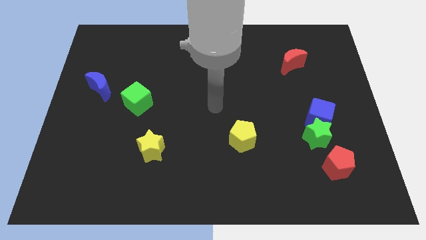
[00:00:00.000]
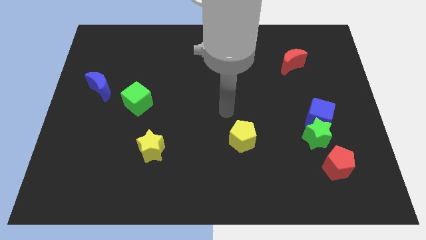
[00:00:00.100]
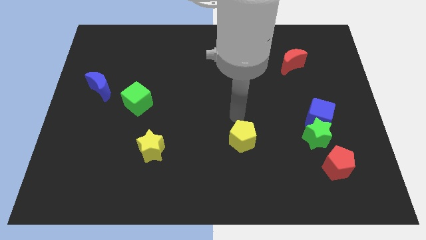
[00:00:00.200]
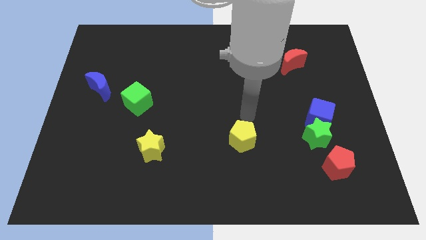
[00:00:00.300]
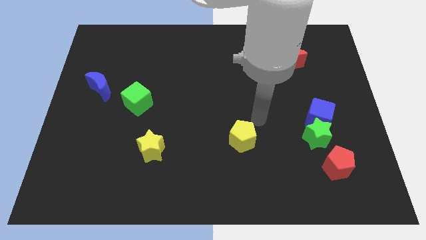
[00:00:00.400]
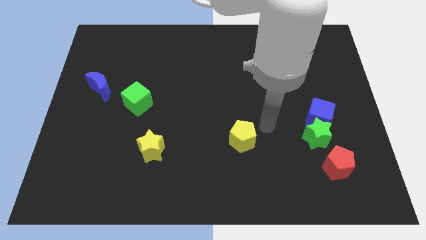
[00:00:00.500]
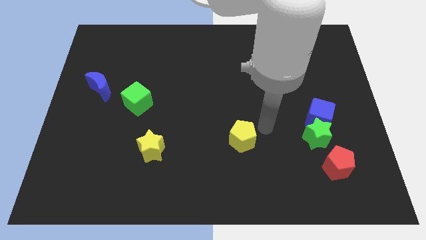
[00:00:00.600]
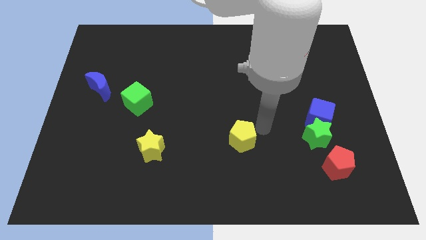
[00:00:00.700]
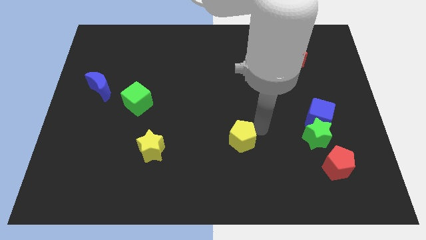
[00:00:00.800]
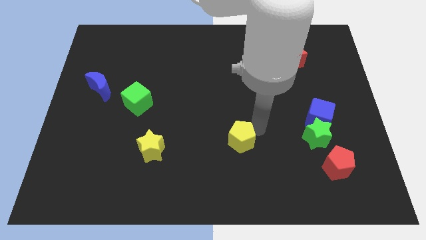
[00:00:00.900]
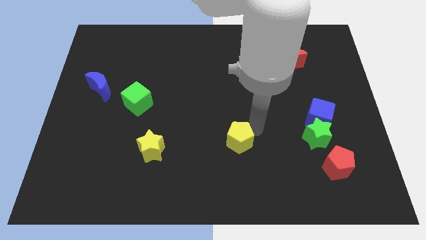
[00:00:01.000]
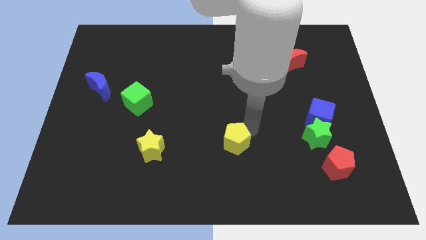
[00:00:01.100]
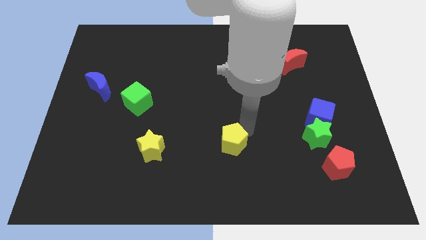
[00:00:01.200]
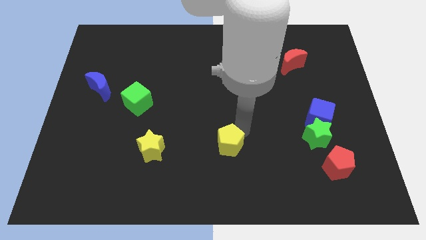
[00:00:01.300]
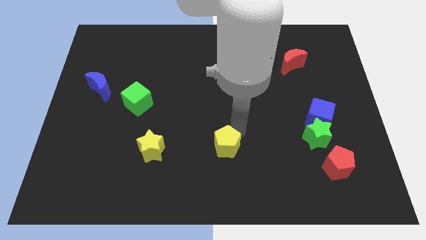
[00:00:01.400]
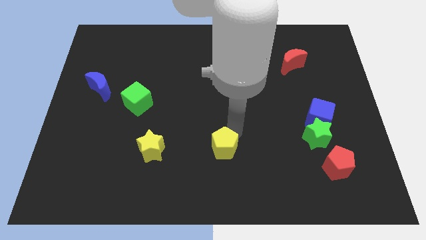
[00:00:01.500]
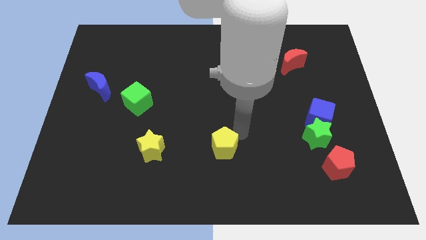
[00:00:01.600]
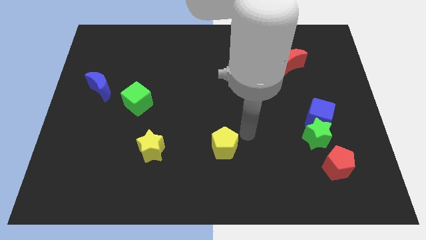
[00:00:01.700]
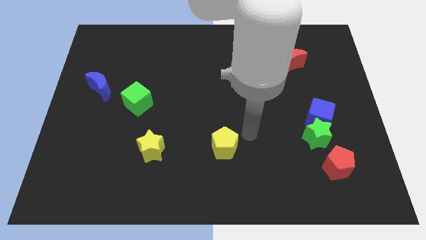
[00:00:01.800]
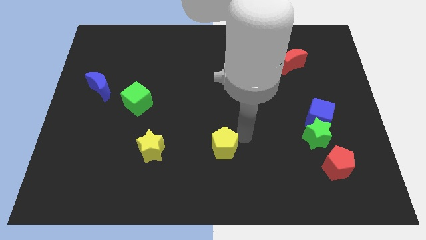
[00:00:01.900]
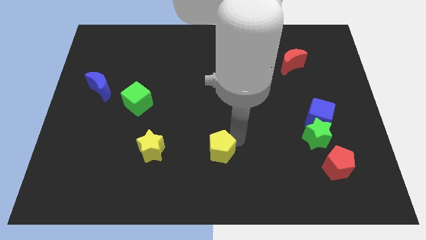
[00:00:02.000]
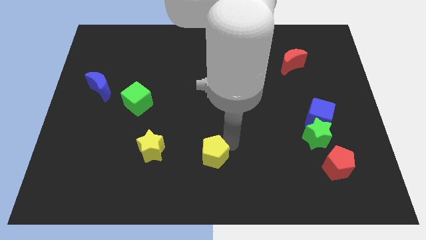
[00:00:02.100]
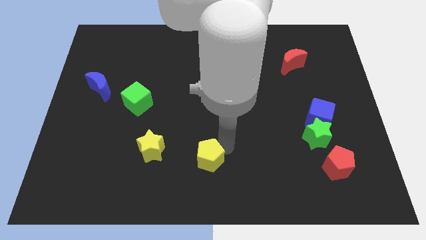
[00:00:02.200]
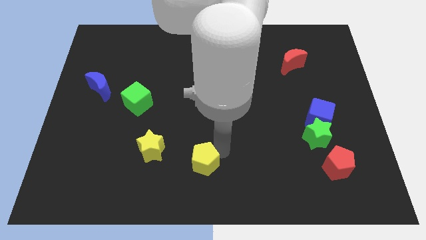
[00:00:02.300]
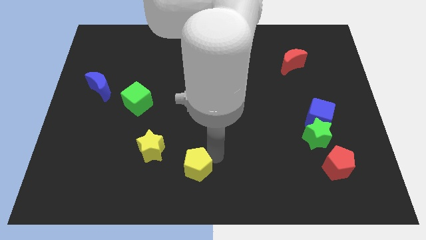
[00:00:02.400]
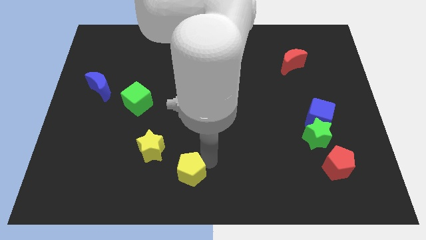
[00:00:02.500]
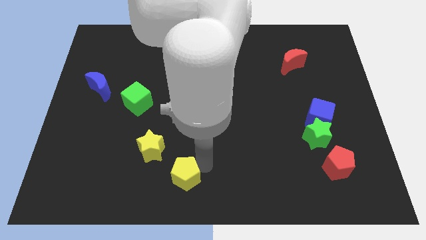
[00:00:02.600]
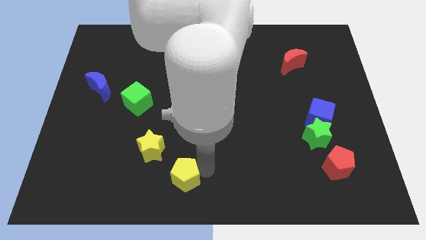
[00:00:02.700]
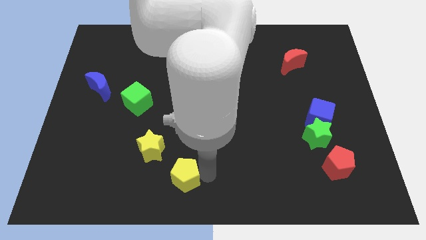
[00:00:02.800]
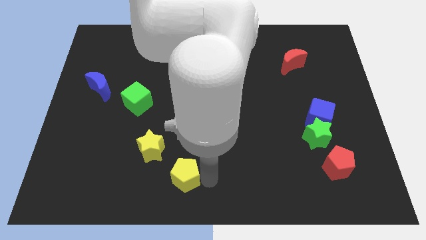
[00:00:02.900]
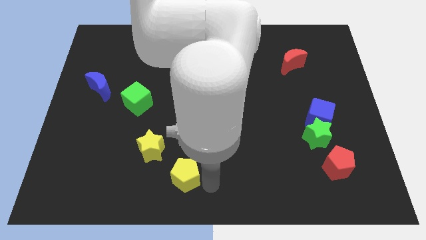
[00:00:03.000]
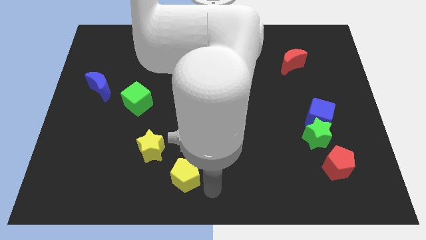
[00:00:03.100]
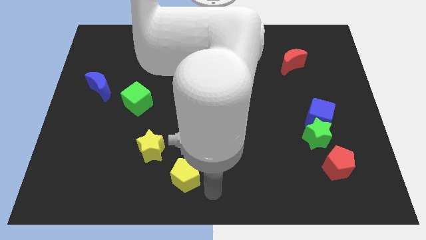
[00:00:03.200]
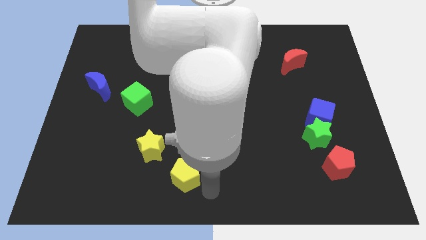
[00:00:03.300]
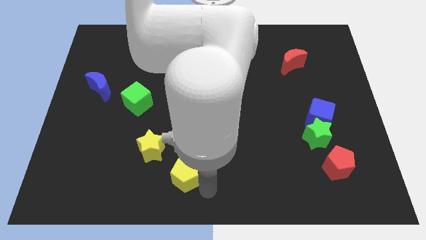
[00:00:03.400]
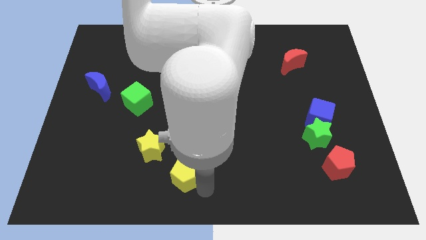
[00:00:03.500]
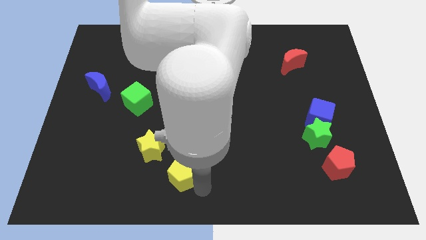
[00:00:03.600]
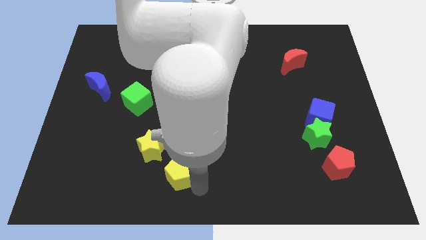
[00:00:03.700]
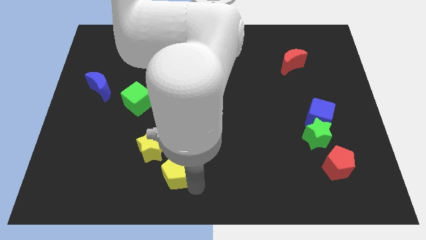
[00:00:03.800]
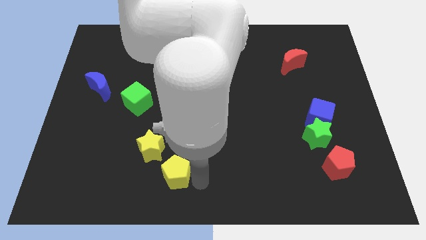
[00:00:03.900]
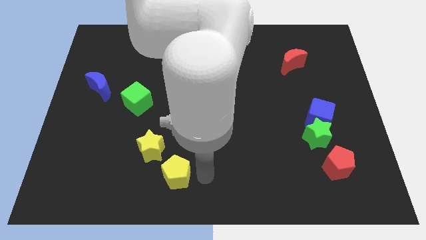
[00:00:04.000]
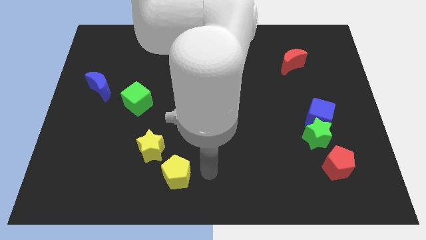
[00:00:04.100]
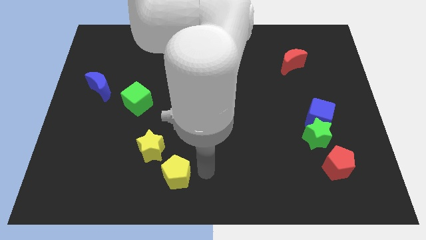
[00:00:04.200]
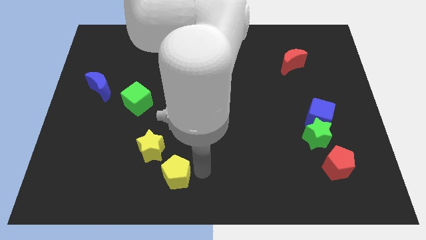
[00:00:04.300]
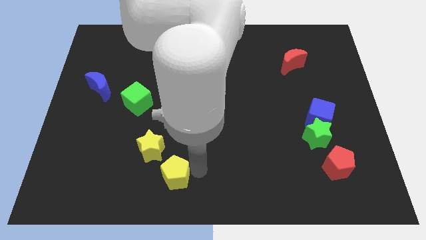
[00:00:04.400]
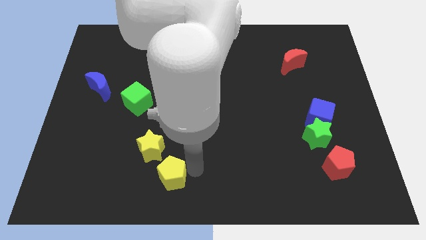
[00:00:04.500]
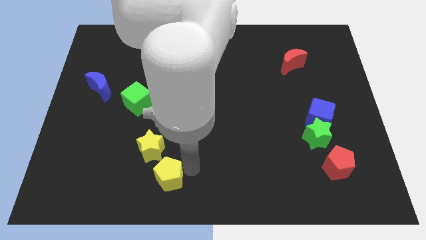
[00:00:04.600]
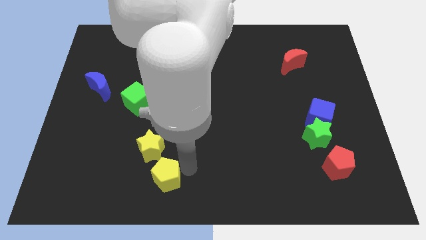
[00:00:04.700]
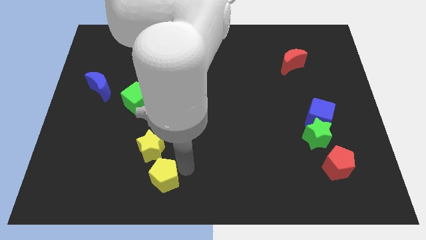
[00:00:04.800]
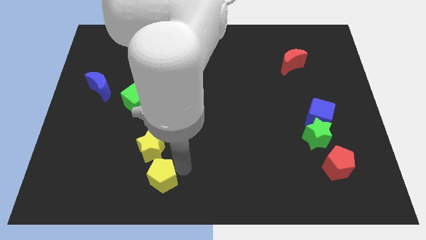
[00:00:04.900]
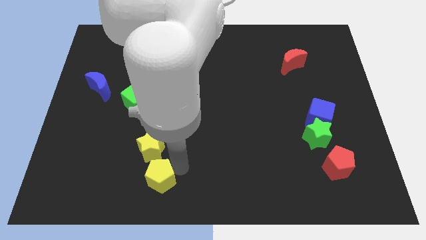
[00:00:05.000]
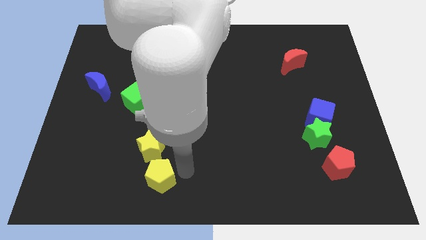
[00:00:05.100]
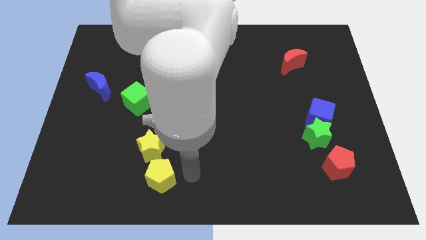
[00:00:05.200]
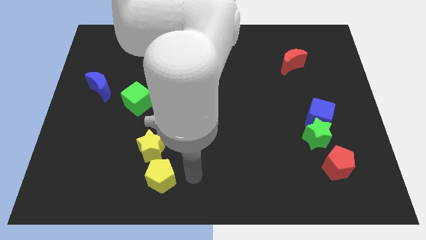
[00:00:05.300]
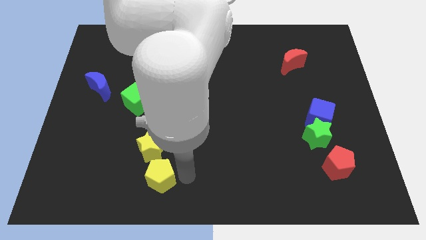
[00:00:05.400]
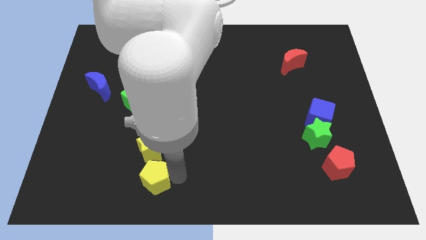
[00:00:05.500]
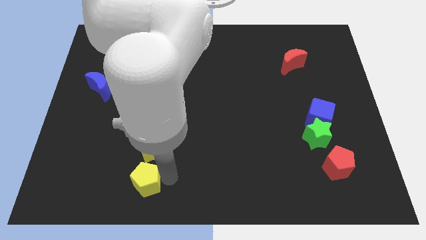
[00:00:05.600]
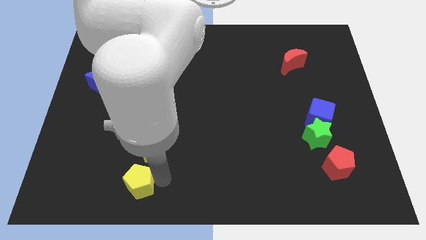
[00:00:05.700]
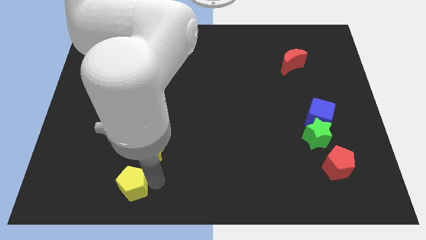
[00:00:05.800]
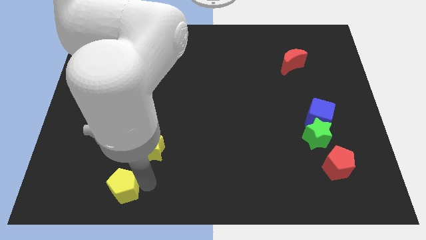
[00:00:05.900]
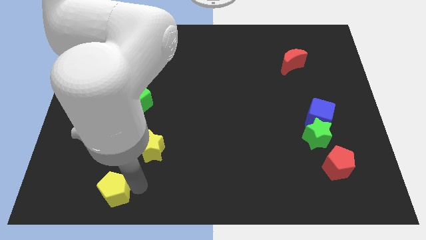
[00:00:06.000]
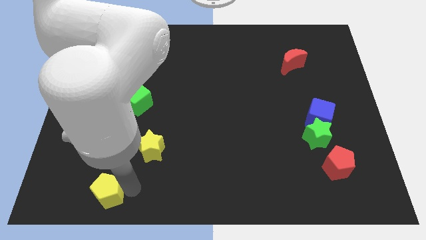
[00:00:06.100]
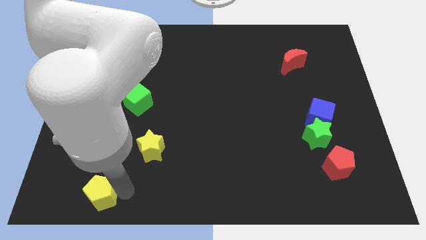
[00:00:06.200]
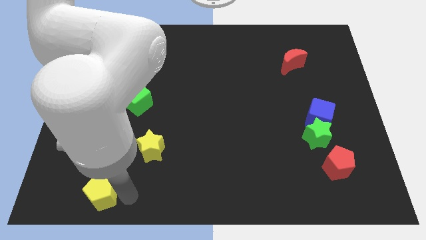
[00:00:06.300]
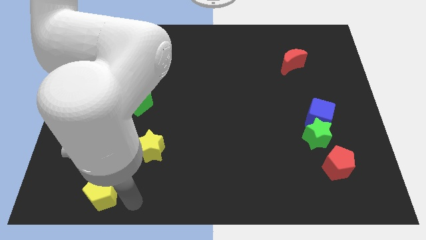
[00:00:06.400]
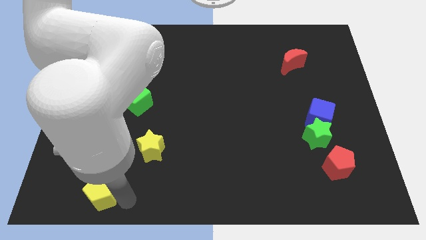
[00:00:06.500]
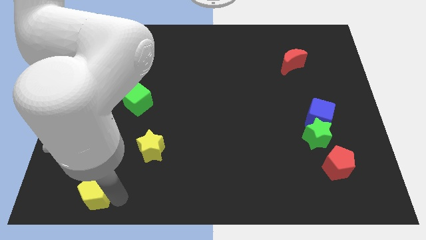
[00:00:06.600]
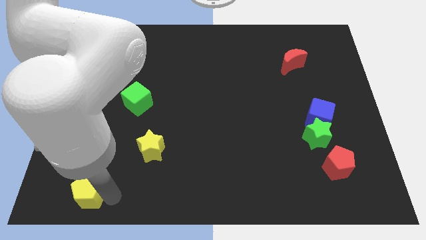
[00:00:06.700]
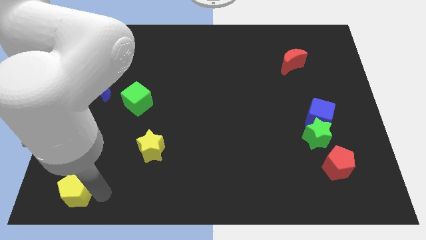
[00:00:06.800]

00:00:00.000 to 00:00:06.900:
push the yellow pentagon to the bottom left of the board
